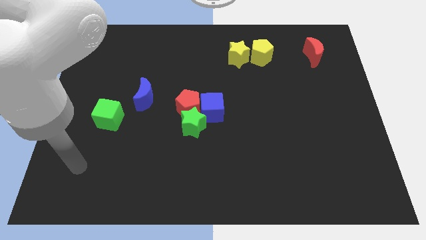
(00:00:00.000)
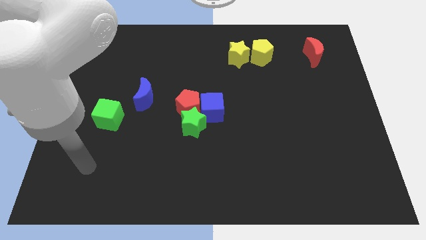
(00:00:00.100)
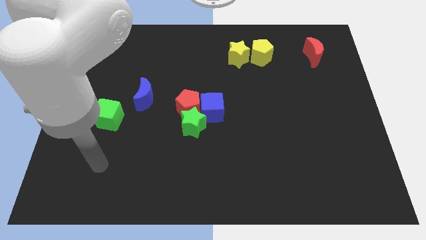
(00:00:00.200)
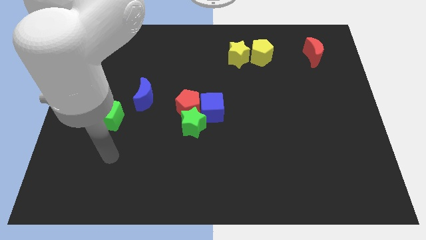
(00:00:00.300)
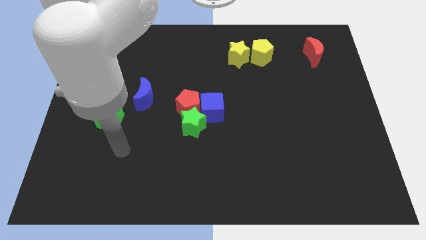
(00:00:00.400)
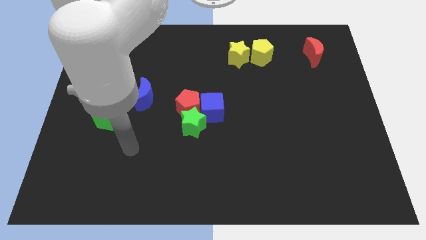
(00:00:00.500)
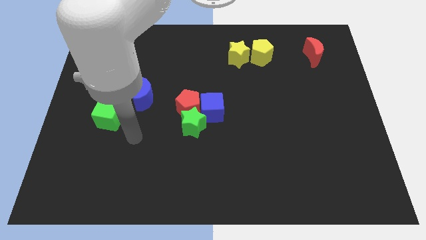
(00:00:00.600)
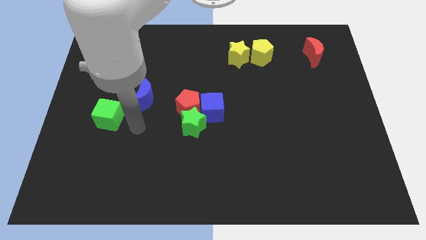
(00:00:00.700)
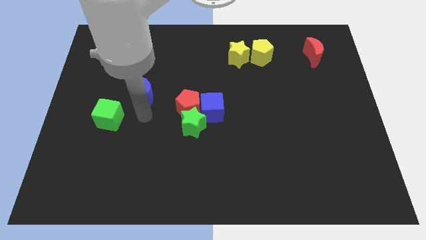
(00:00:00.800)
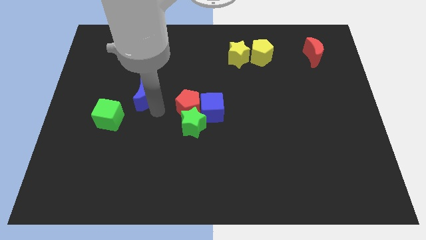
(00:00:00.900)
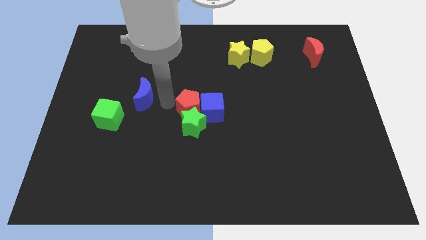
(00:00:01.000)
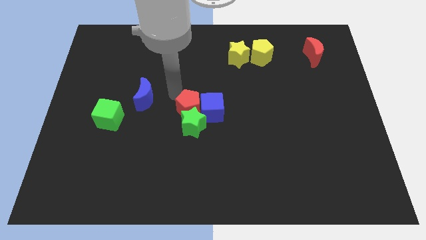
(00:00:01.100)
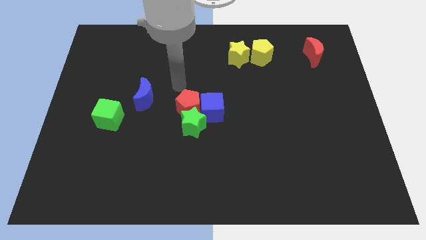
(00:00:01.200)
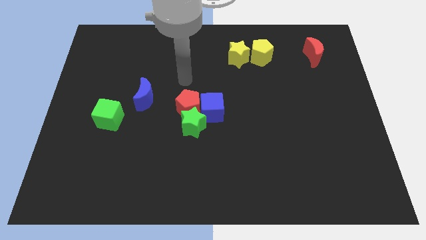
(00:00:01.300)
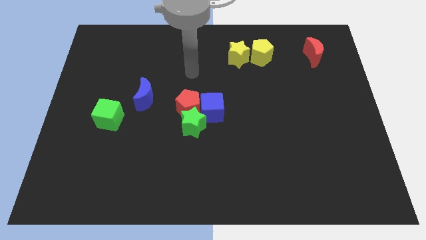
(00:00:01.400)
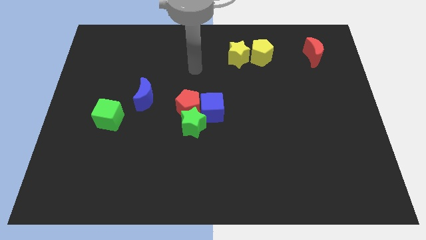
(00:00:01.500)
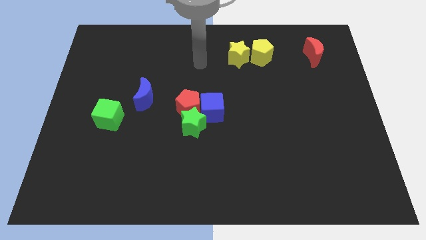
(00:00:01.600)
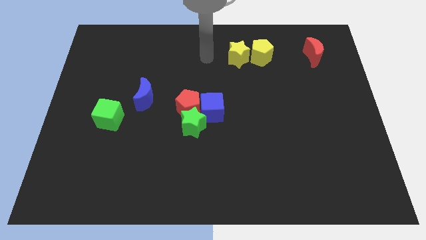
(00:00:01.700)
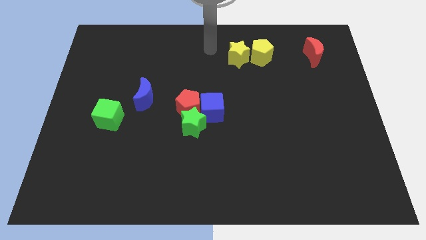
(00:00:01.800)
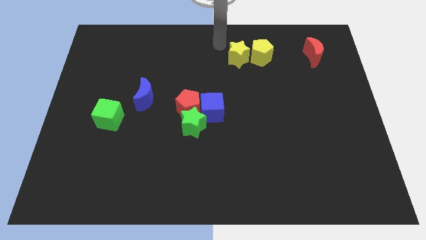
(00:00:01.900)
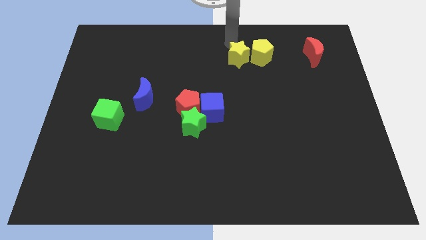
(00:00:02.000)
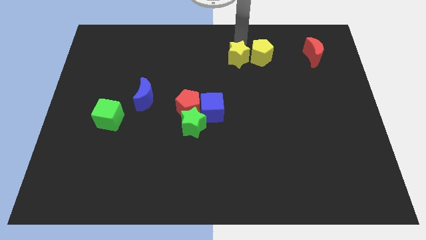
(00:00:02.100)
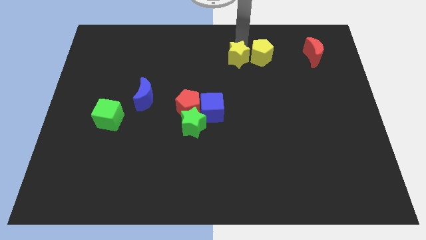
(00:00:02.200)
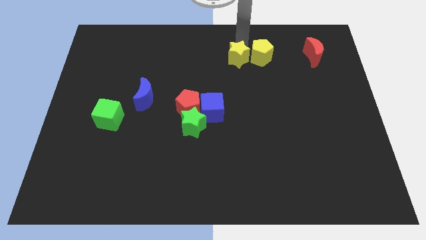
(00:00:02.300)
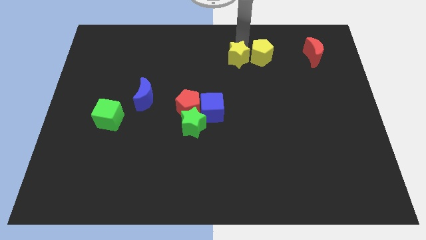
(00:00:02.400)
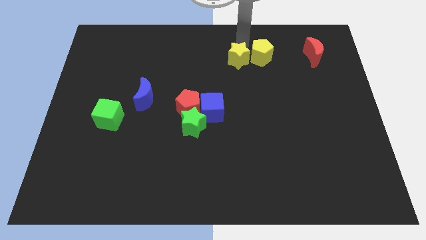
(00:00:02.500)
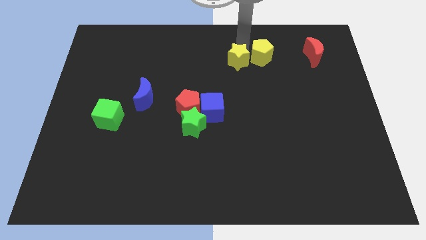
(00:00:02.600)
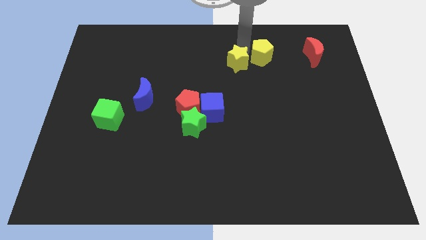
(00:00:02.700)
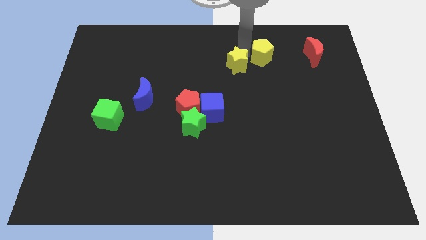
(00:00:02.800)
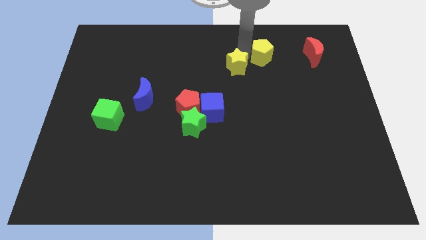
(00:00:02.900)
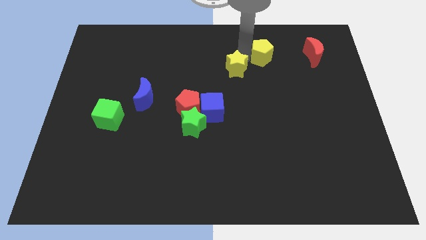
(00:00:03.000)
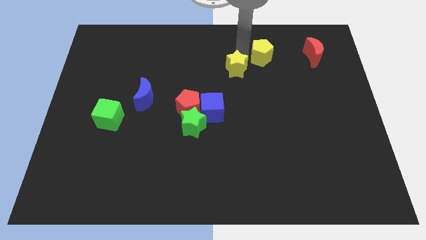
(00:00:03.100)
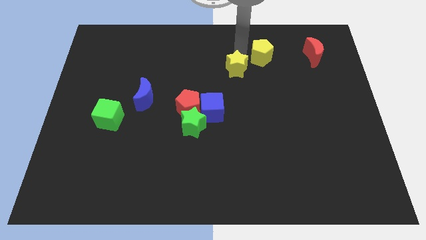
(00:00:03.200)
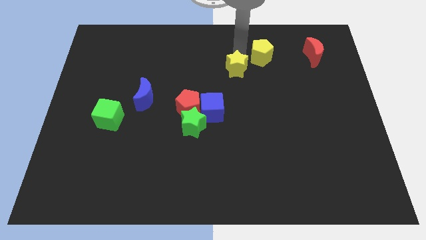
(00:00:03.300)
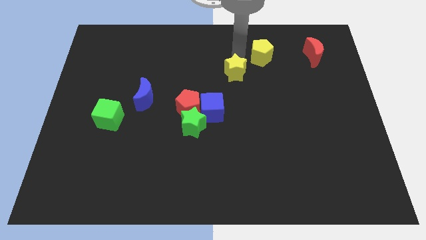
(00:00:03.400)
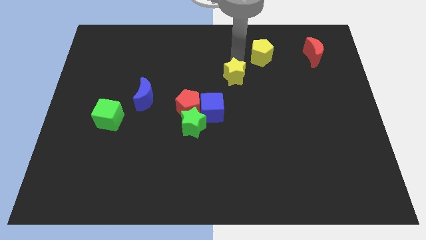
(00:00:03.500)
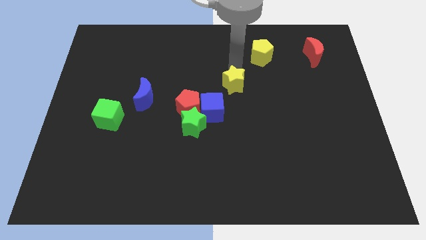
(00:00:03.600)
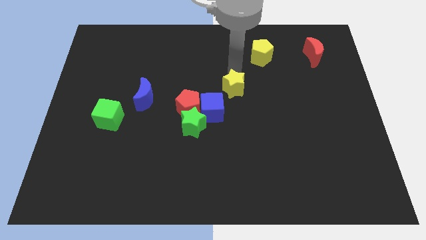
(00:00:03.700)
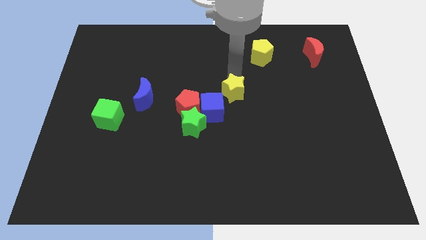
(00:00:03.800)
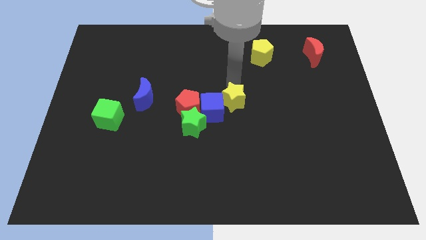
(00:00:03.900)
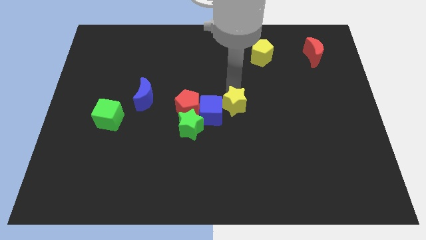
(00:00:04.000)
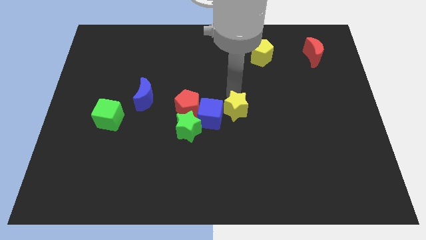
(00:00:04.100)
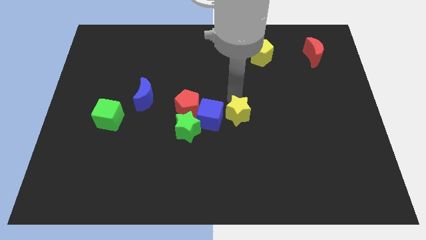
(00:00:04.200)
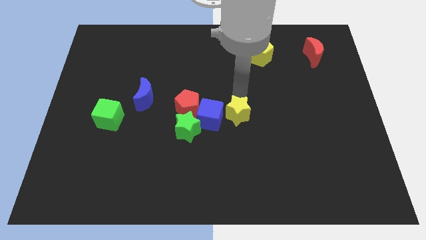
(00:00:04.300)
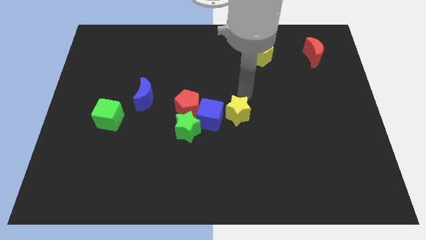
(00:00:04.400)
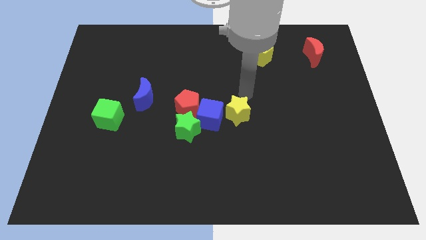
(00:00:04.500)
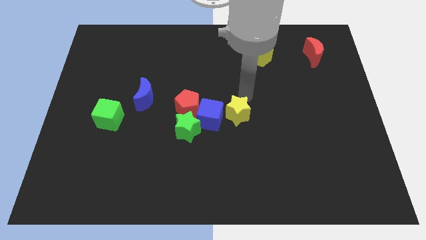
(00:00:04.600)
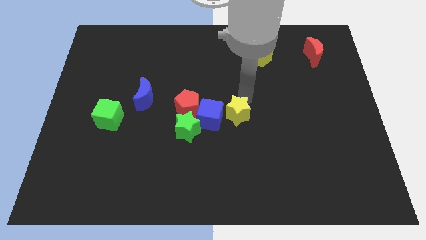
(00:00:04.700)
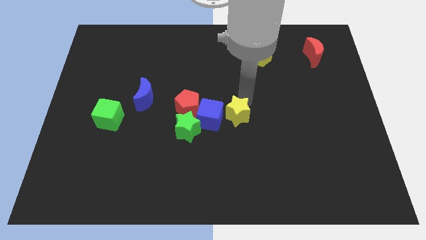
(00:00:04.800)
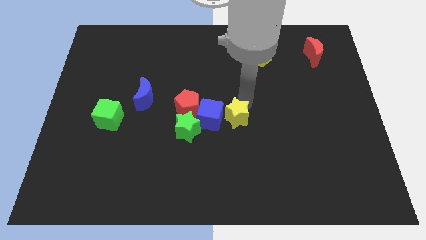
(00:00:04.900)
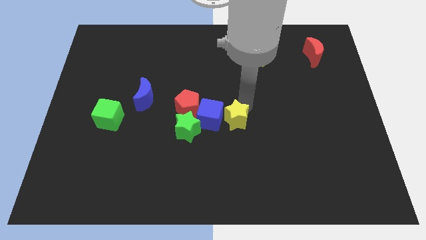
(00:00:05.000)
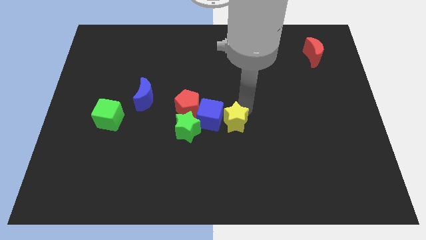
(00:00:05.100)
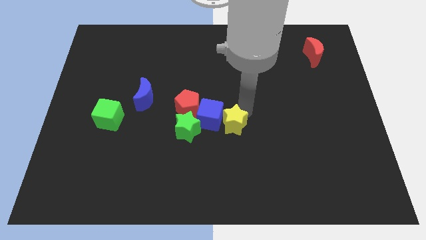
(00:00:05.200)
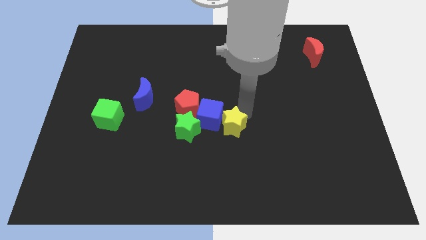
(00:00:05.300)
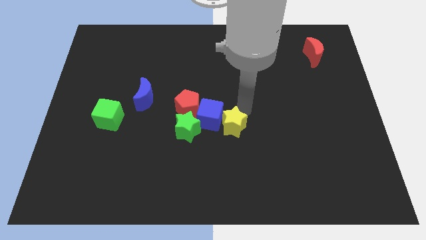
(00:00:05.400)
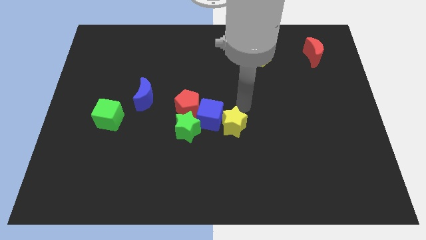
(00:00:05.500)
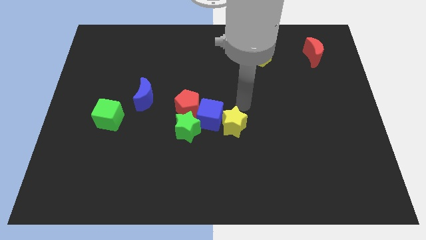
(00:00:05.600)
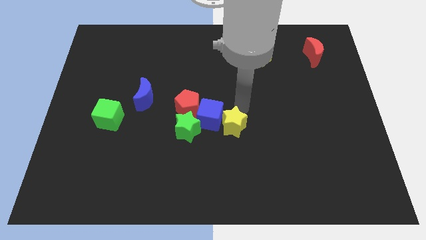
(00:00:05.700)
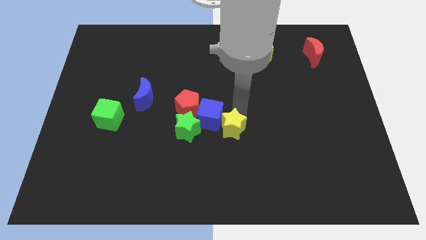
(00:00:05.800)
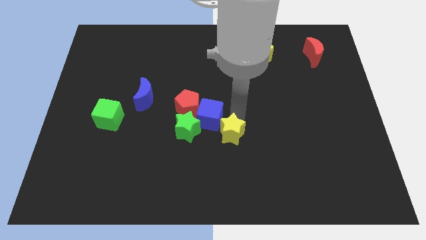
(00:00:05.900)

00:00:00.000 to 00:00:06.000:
slide the yellow star below the blue cube

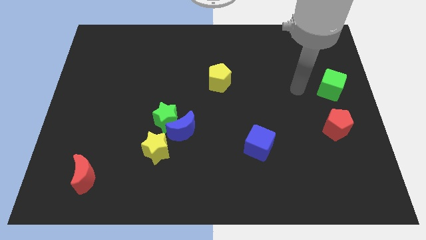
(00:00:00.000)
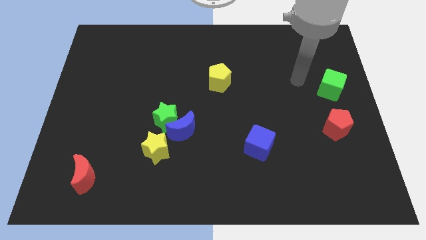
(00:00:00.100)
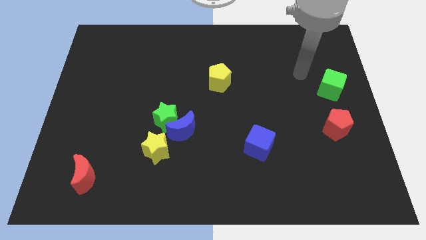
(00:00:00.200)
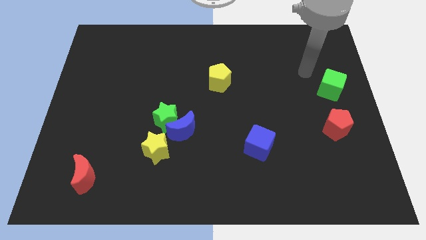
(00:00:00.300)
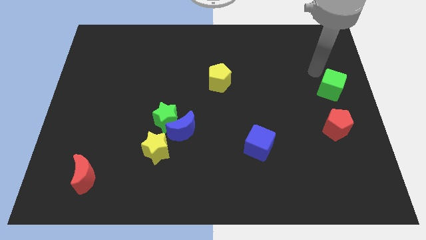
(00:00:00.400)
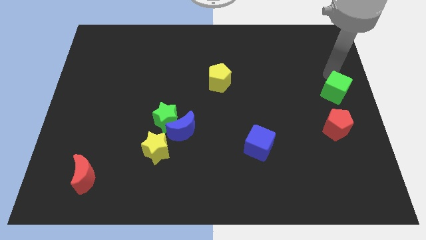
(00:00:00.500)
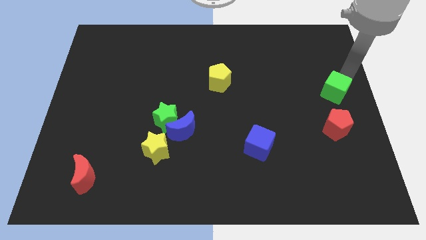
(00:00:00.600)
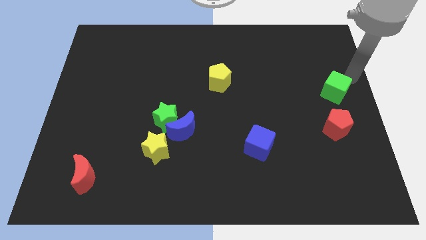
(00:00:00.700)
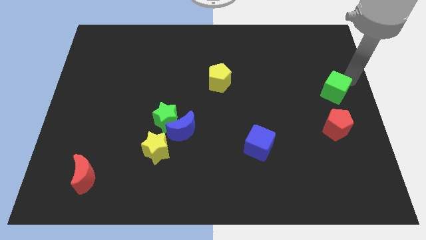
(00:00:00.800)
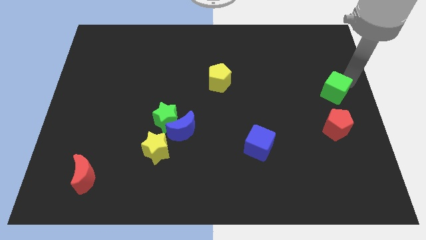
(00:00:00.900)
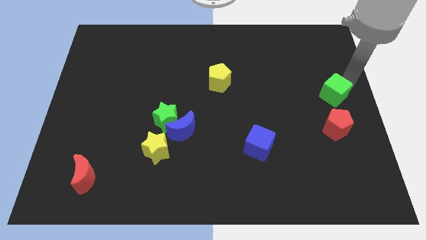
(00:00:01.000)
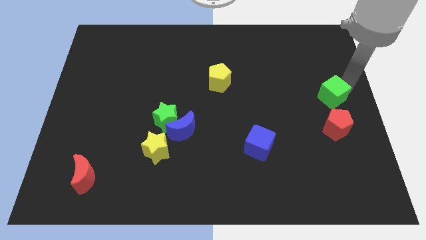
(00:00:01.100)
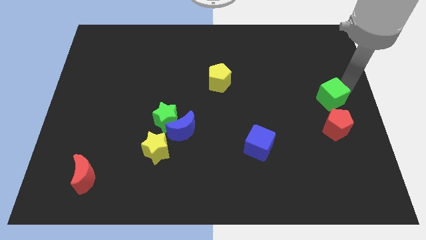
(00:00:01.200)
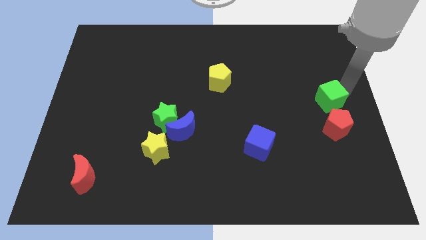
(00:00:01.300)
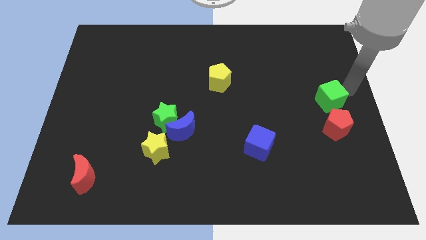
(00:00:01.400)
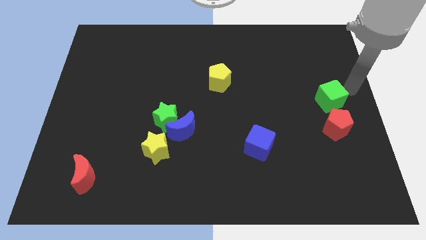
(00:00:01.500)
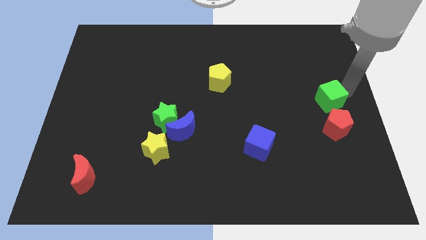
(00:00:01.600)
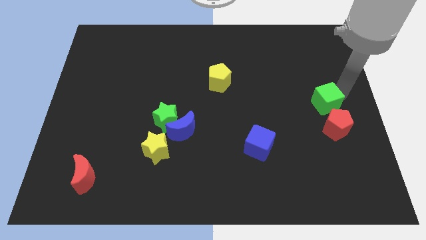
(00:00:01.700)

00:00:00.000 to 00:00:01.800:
move the green cube to the top left side of the red pentagon
